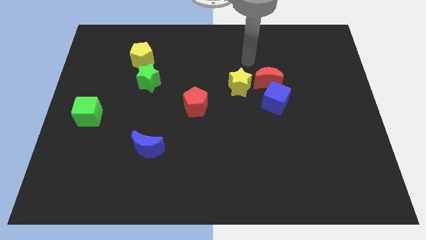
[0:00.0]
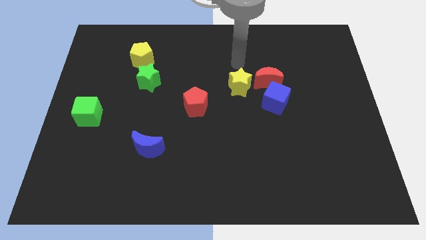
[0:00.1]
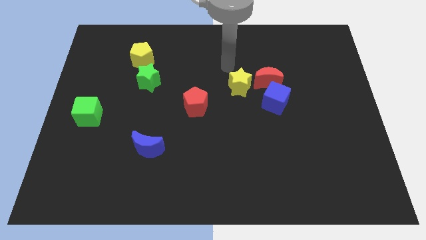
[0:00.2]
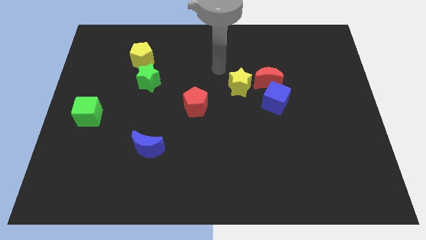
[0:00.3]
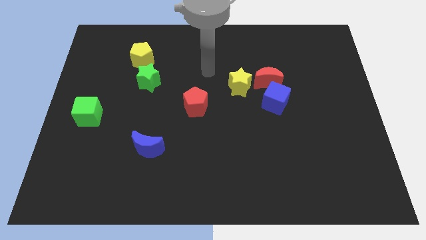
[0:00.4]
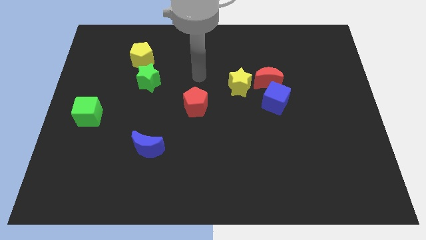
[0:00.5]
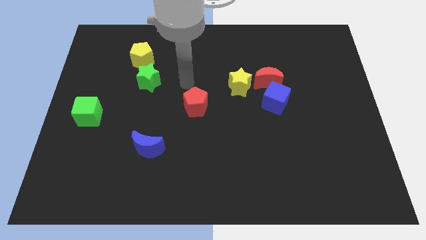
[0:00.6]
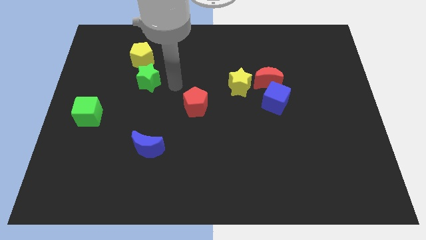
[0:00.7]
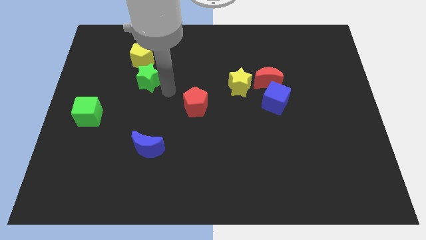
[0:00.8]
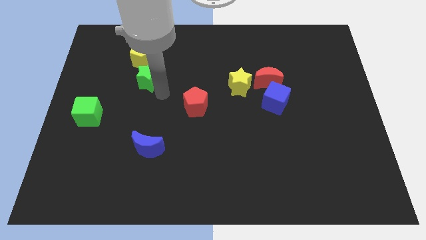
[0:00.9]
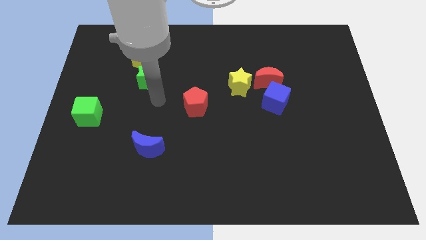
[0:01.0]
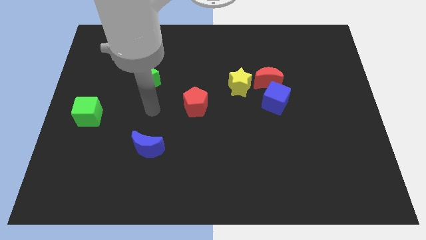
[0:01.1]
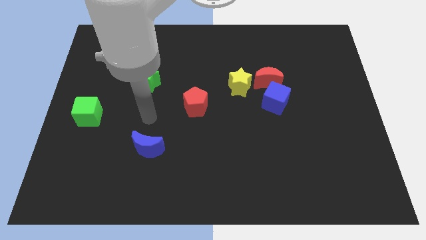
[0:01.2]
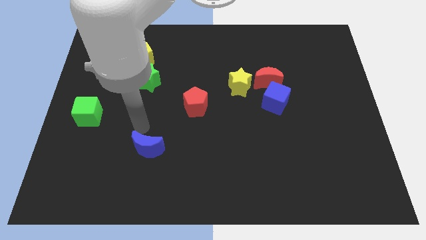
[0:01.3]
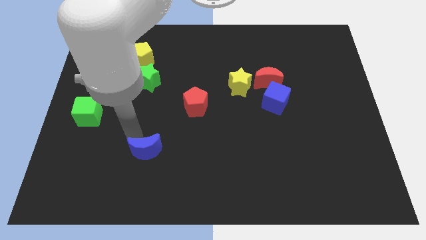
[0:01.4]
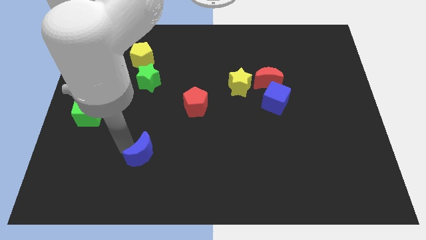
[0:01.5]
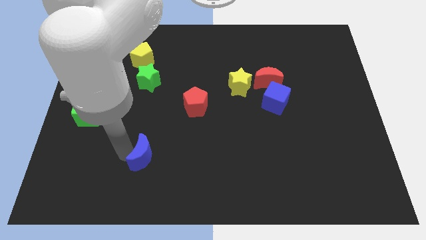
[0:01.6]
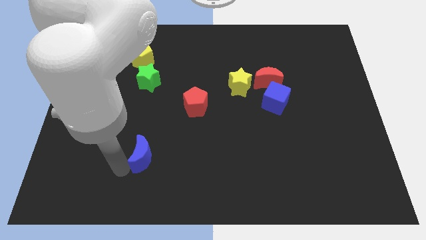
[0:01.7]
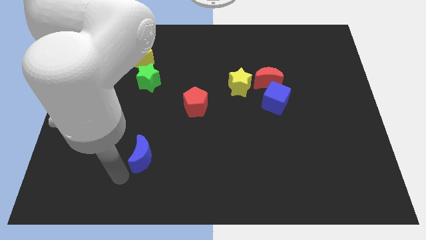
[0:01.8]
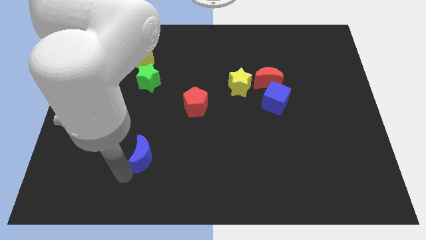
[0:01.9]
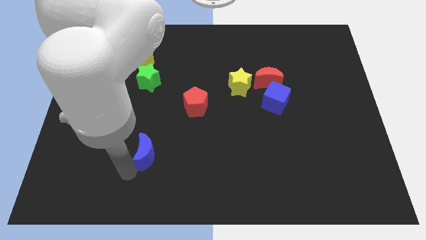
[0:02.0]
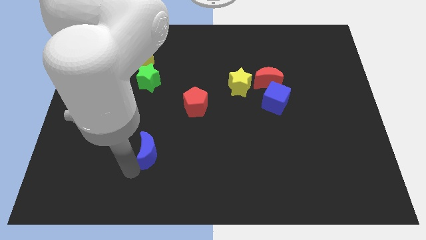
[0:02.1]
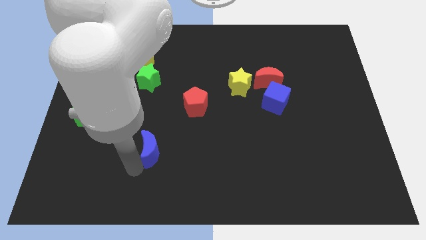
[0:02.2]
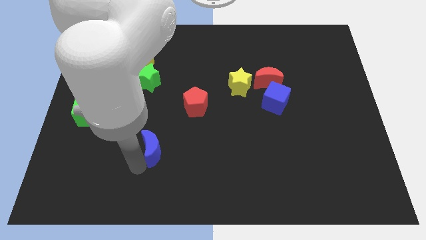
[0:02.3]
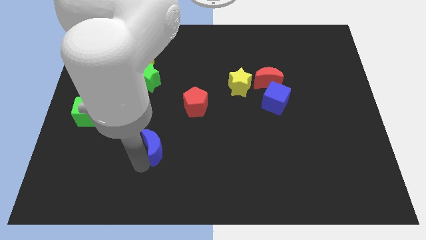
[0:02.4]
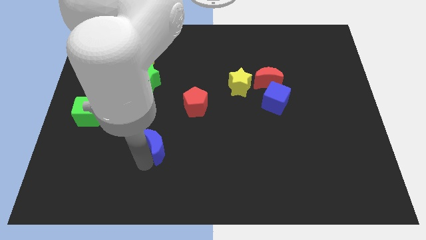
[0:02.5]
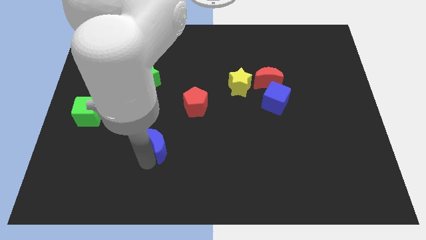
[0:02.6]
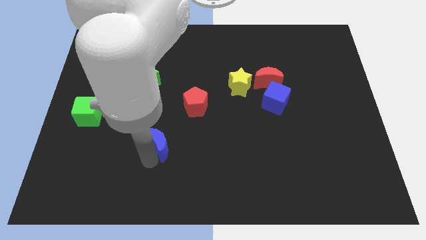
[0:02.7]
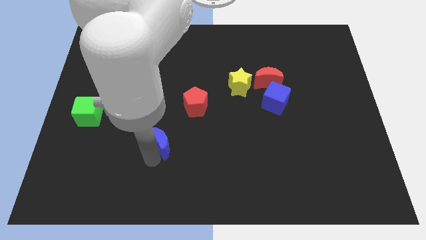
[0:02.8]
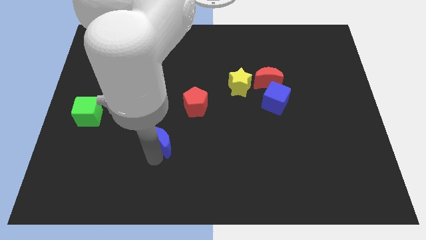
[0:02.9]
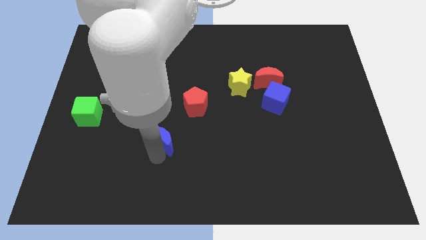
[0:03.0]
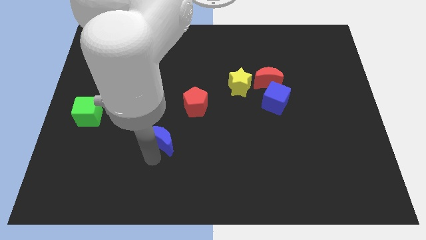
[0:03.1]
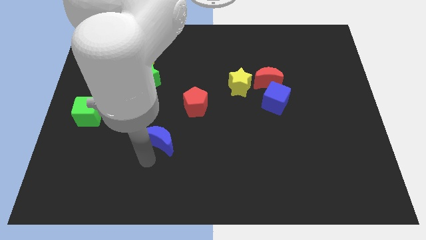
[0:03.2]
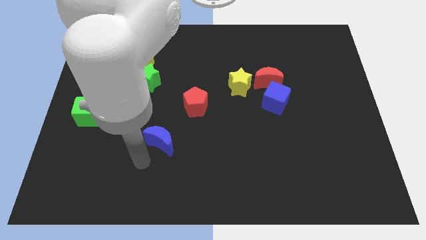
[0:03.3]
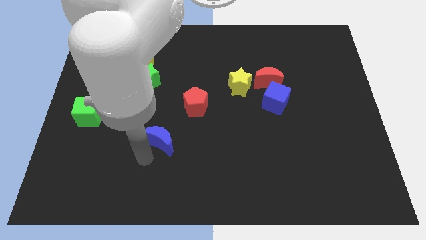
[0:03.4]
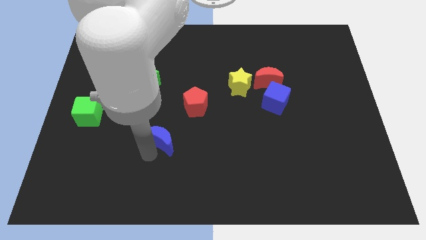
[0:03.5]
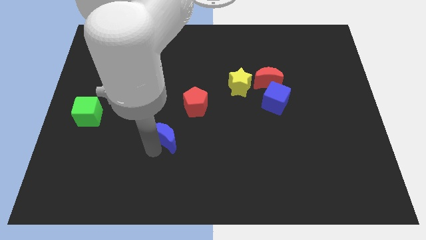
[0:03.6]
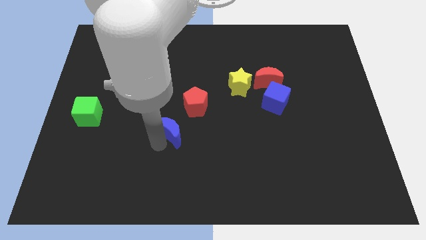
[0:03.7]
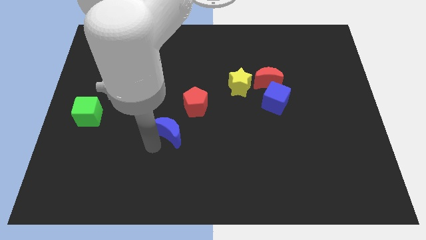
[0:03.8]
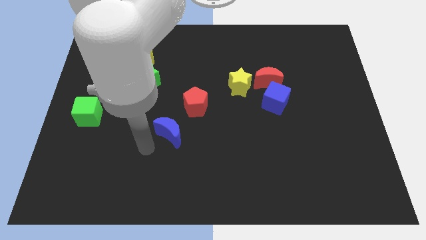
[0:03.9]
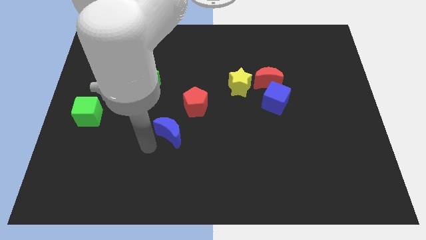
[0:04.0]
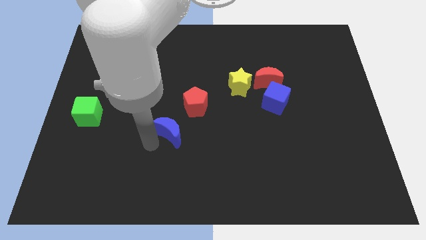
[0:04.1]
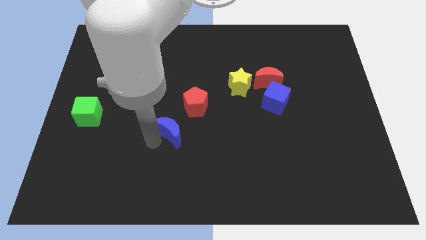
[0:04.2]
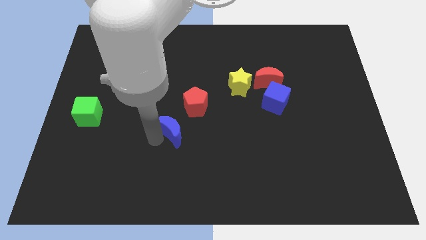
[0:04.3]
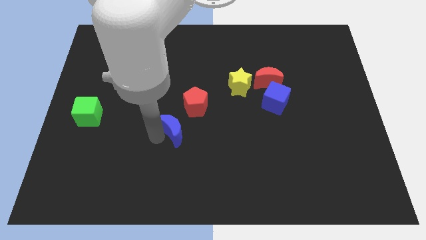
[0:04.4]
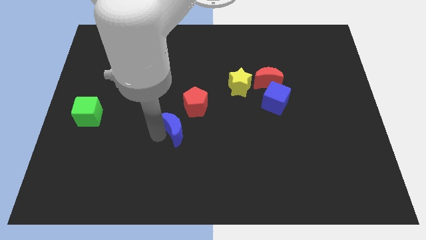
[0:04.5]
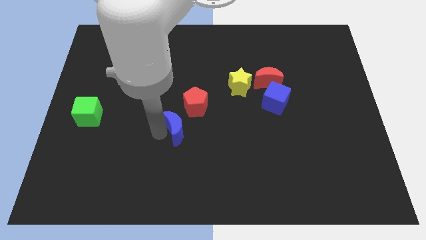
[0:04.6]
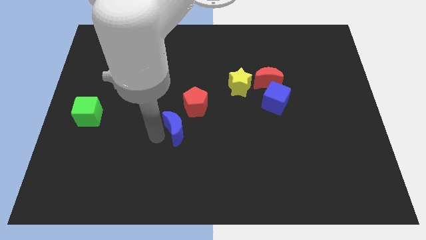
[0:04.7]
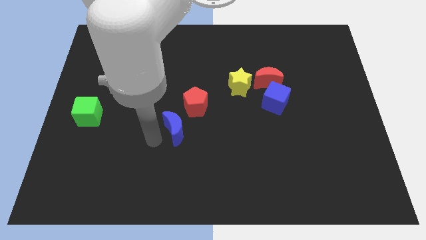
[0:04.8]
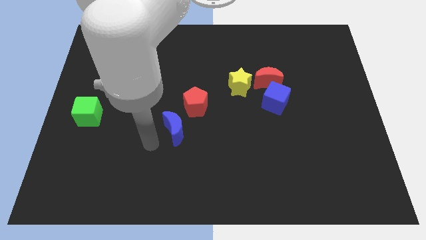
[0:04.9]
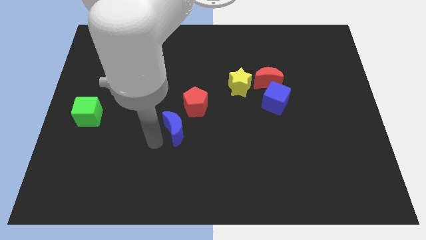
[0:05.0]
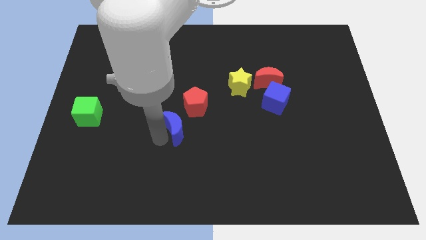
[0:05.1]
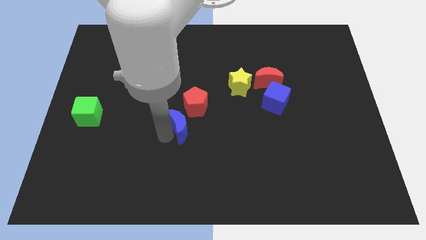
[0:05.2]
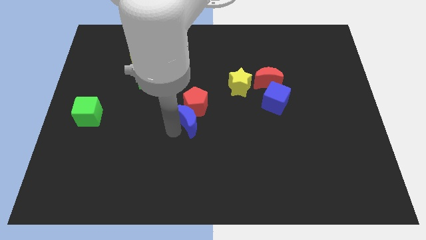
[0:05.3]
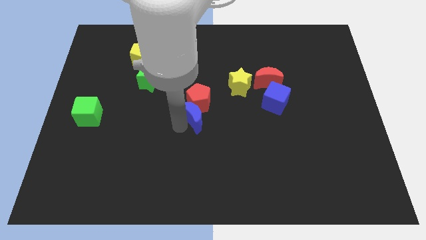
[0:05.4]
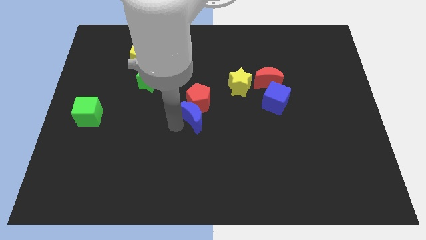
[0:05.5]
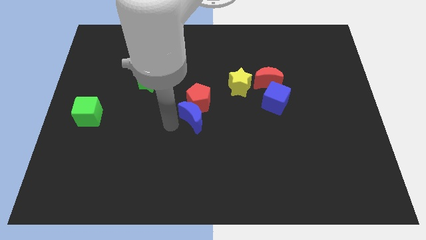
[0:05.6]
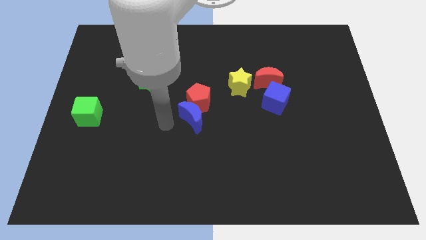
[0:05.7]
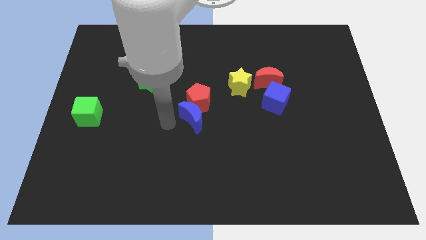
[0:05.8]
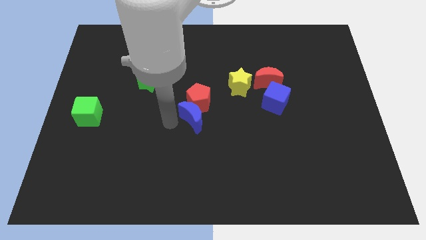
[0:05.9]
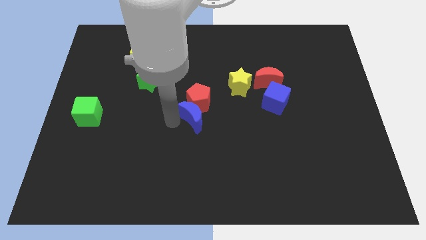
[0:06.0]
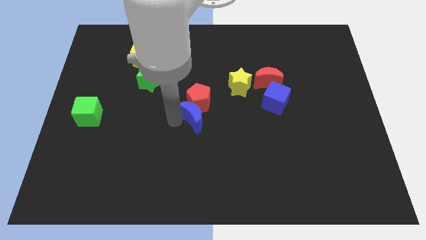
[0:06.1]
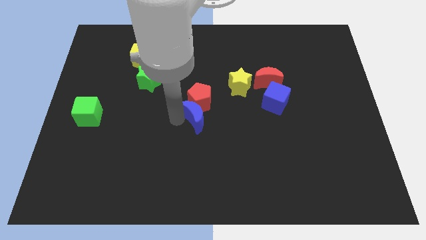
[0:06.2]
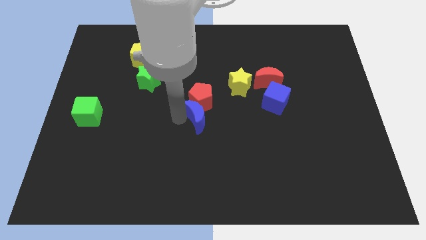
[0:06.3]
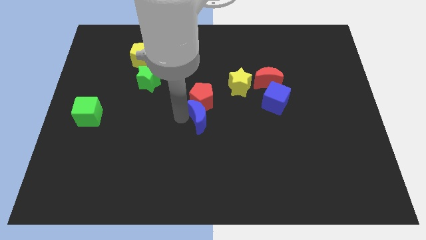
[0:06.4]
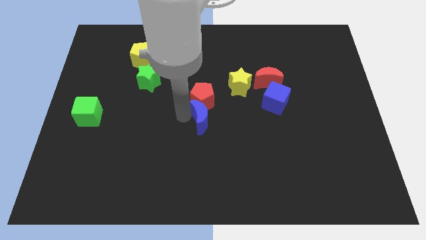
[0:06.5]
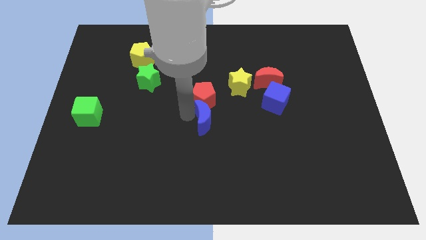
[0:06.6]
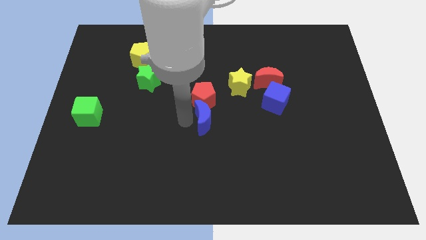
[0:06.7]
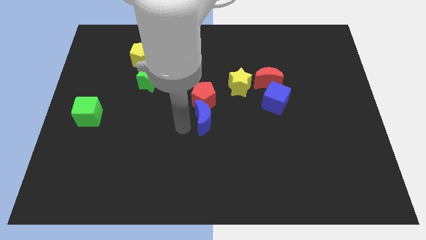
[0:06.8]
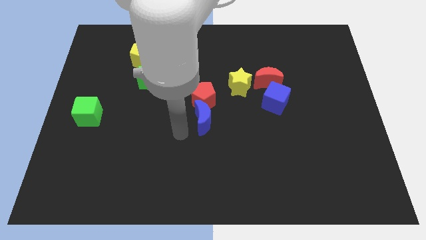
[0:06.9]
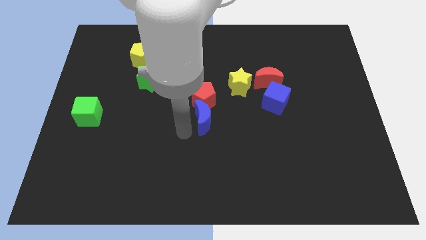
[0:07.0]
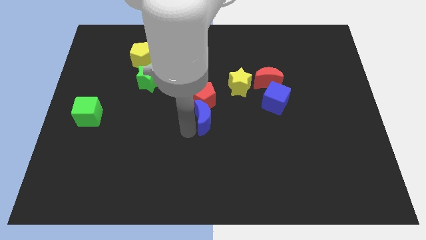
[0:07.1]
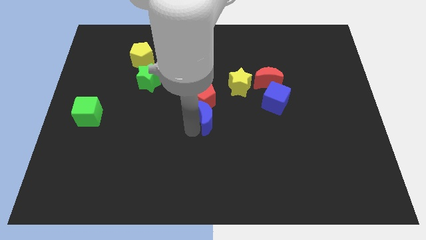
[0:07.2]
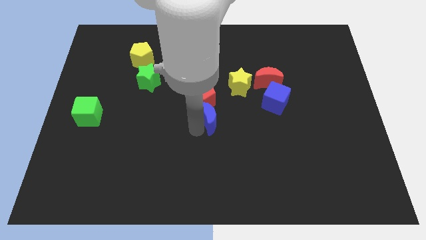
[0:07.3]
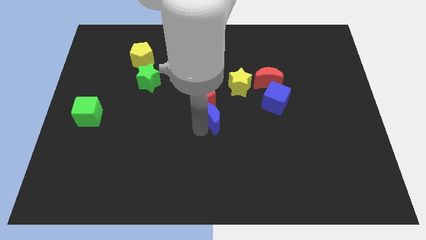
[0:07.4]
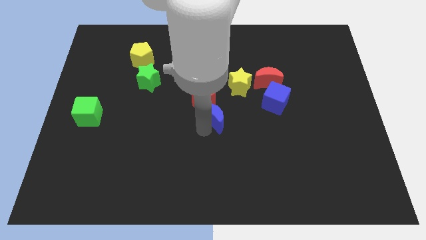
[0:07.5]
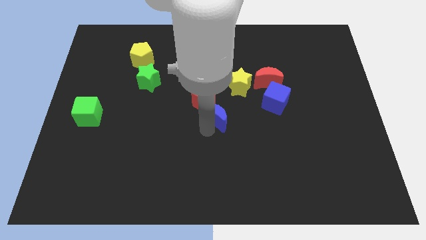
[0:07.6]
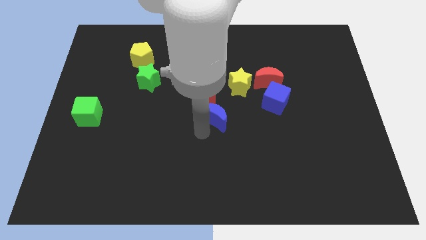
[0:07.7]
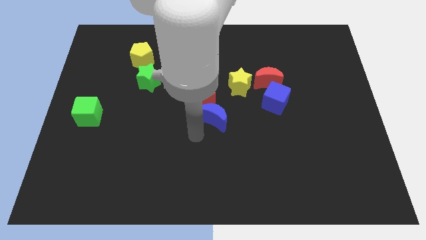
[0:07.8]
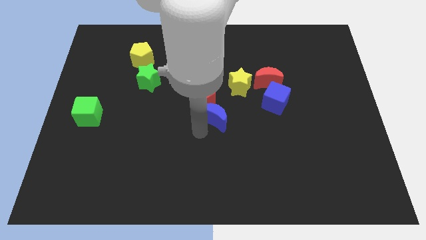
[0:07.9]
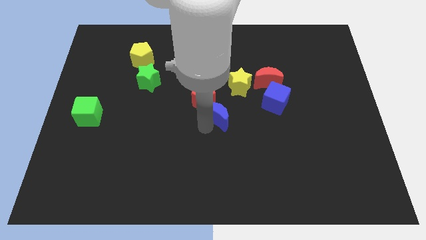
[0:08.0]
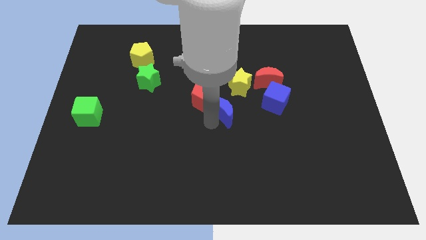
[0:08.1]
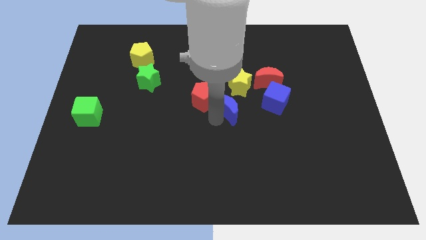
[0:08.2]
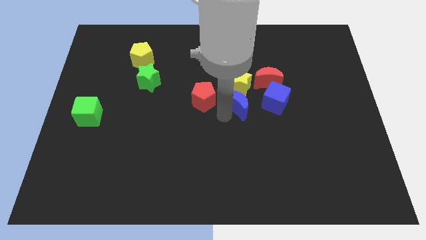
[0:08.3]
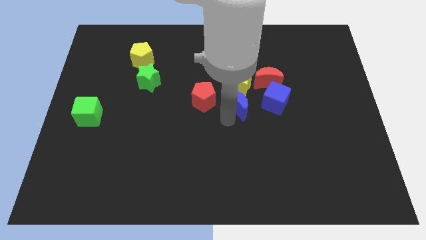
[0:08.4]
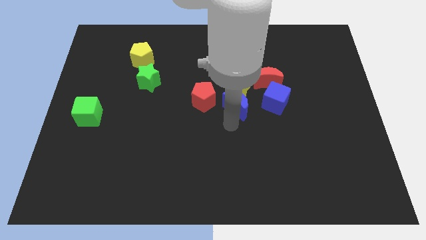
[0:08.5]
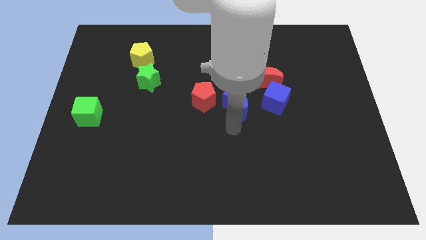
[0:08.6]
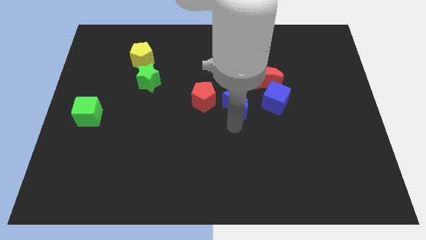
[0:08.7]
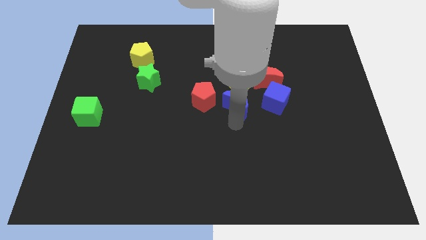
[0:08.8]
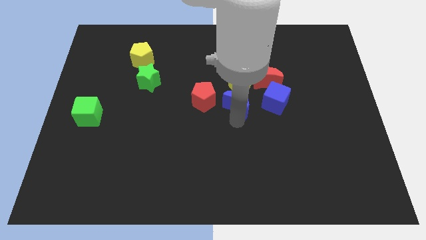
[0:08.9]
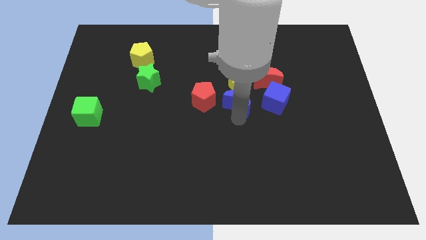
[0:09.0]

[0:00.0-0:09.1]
move the blue moon next to the yellow star
